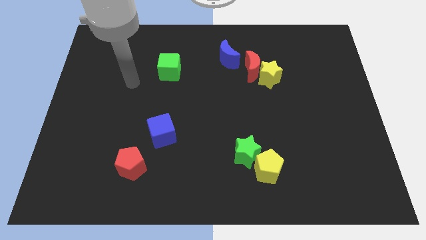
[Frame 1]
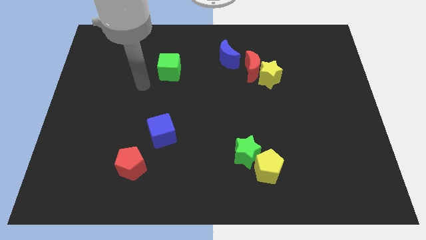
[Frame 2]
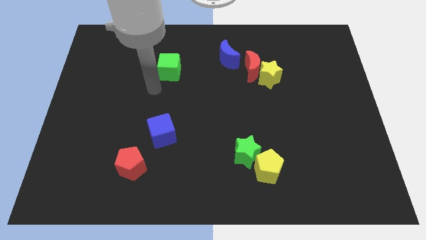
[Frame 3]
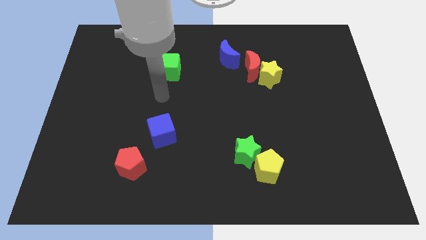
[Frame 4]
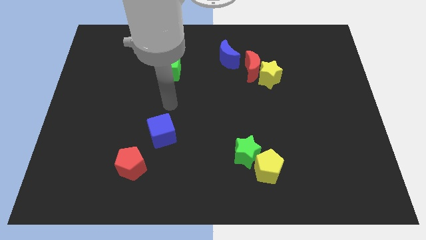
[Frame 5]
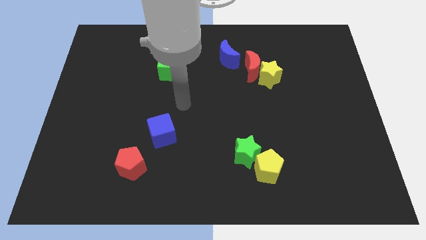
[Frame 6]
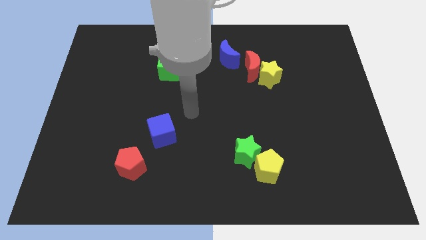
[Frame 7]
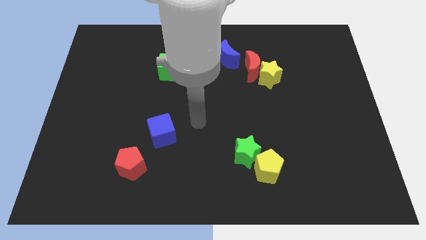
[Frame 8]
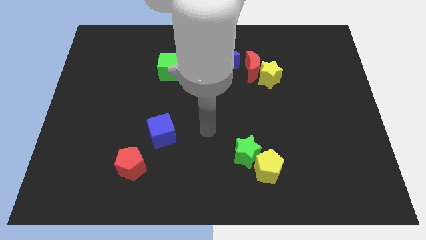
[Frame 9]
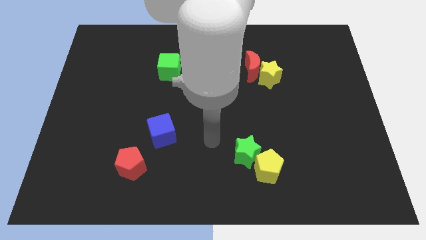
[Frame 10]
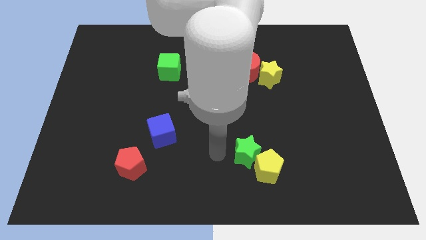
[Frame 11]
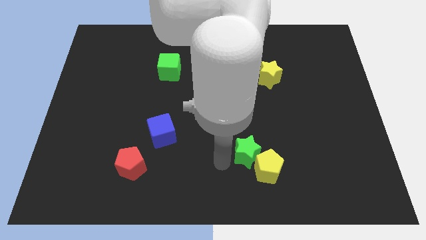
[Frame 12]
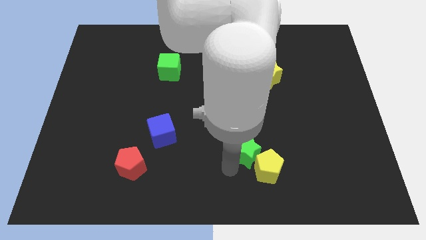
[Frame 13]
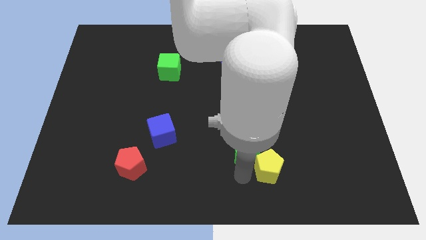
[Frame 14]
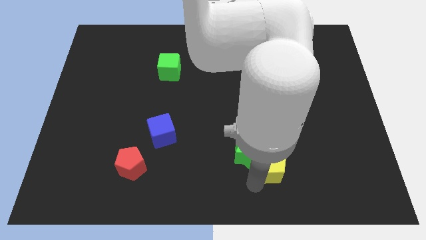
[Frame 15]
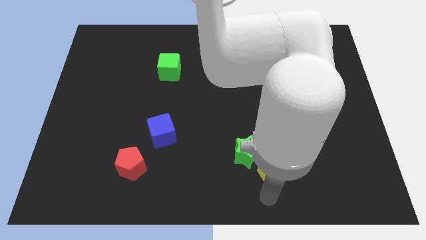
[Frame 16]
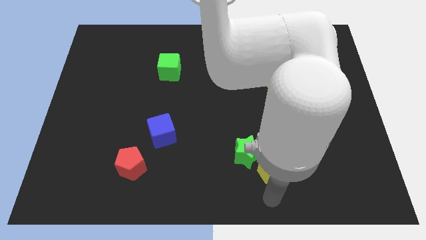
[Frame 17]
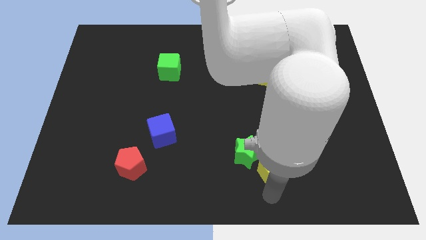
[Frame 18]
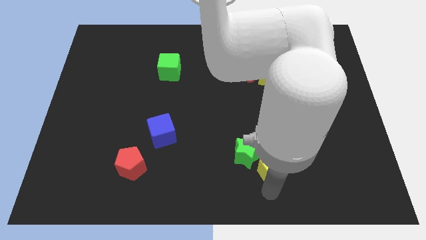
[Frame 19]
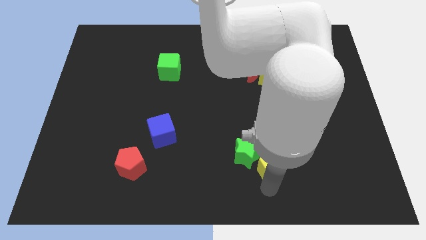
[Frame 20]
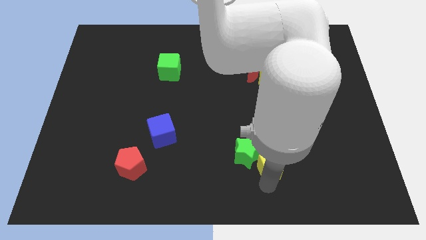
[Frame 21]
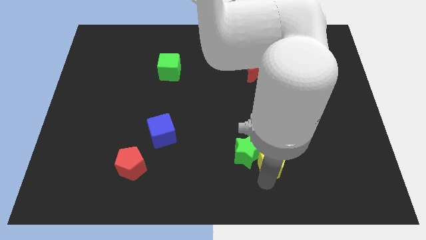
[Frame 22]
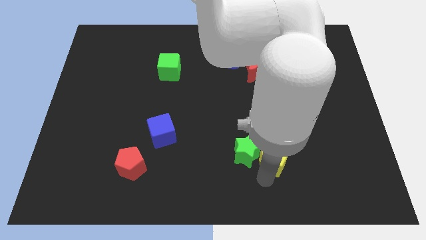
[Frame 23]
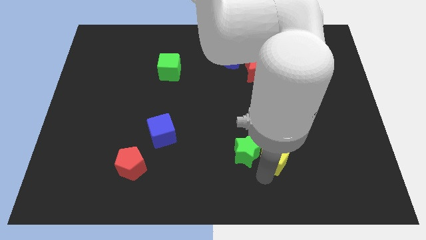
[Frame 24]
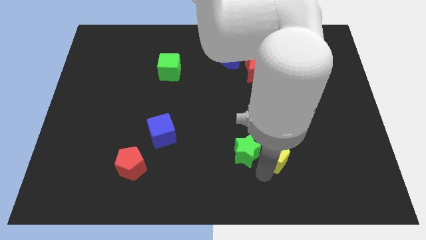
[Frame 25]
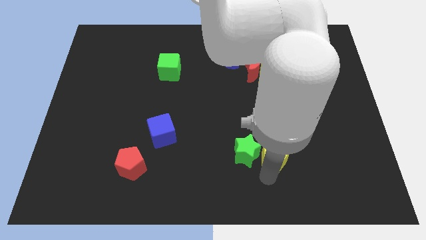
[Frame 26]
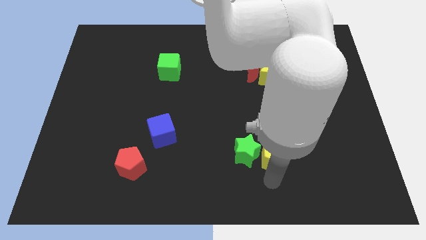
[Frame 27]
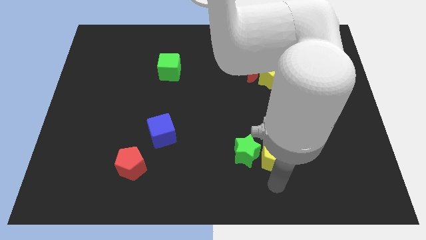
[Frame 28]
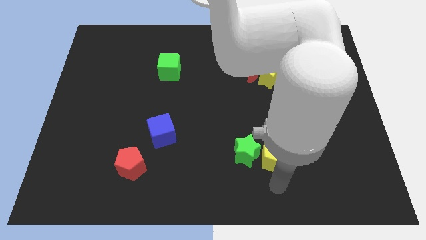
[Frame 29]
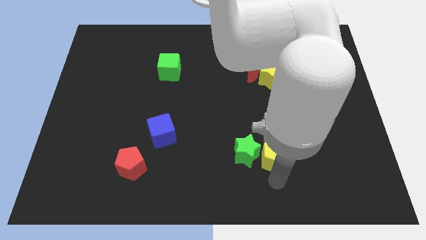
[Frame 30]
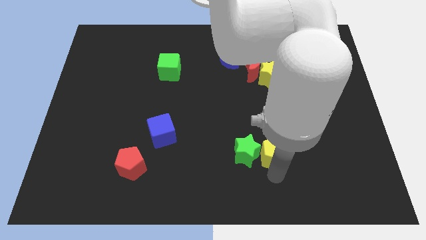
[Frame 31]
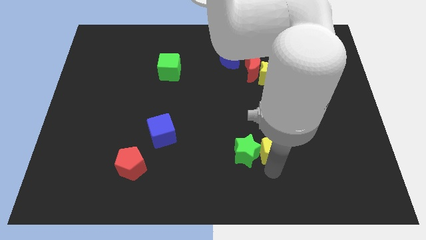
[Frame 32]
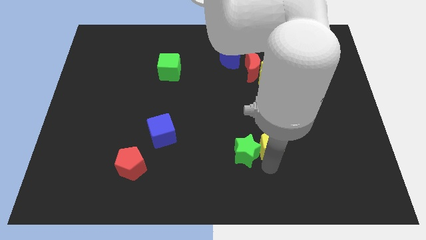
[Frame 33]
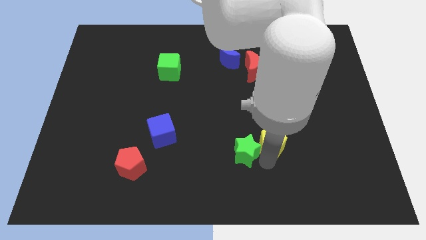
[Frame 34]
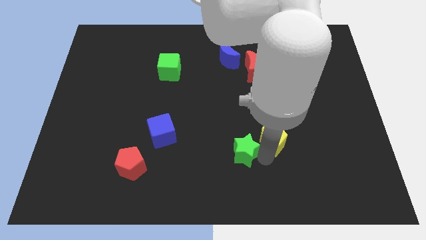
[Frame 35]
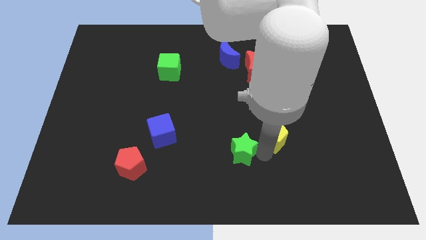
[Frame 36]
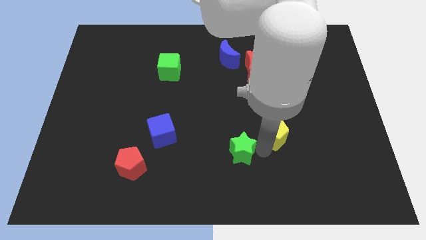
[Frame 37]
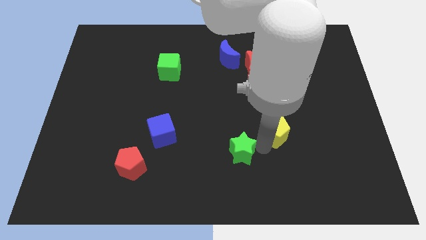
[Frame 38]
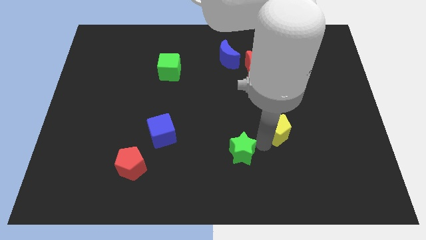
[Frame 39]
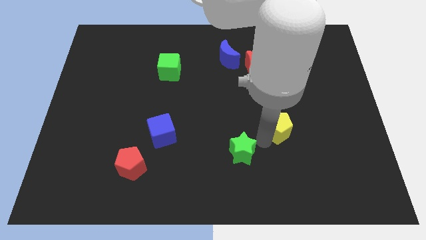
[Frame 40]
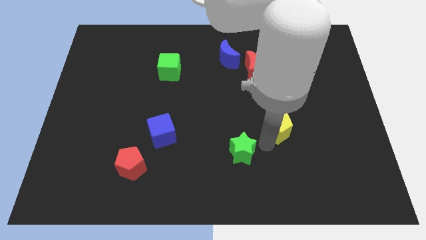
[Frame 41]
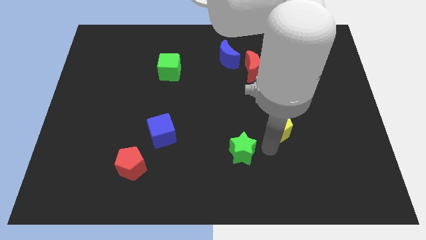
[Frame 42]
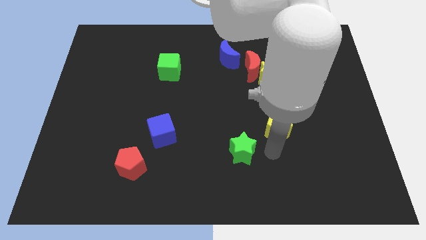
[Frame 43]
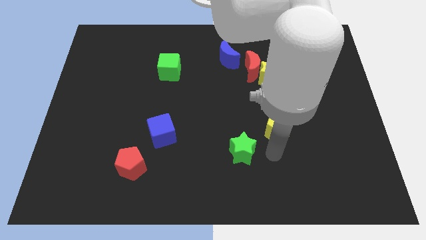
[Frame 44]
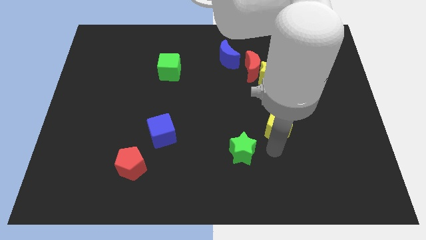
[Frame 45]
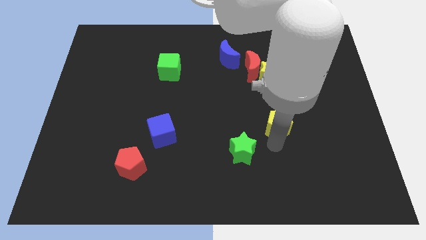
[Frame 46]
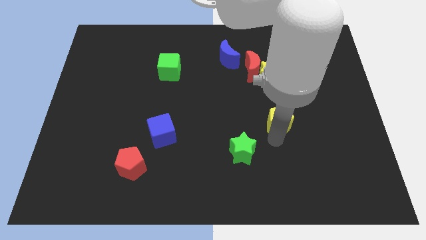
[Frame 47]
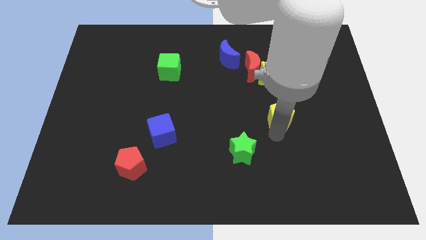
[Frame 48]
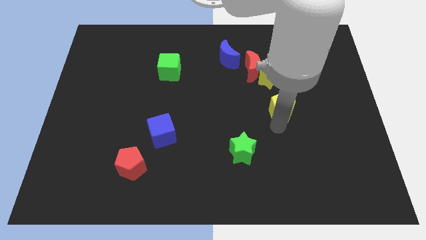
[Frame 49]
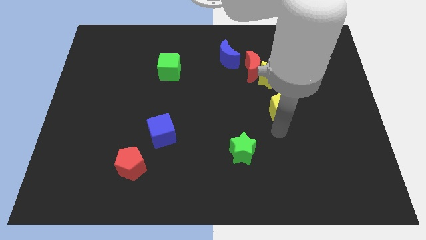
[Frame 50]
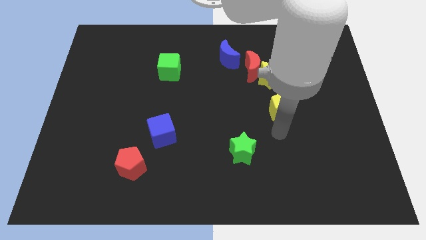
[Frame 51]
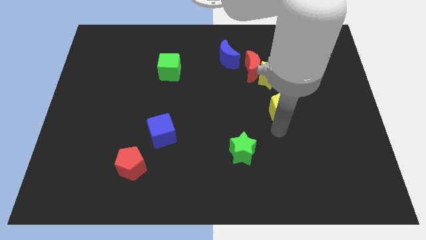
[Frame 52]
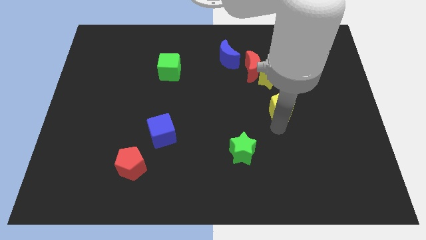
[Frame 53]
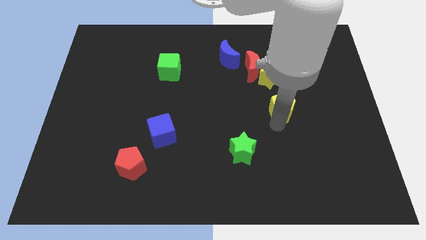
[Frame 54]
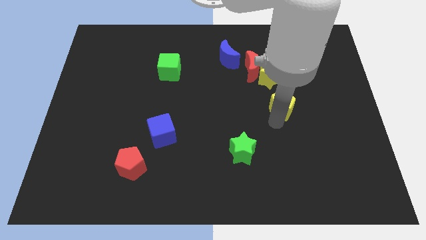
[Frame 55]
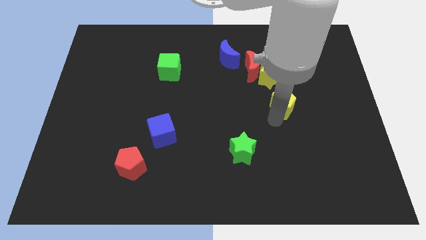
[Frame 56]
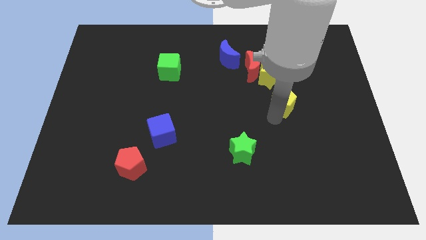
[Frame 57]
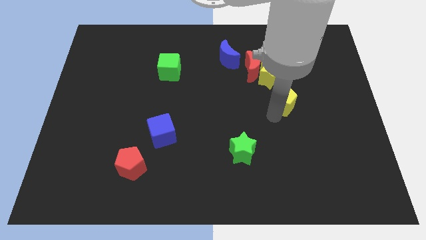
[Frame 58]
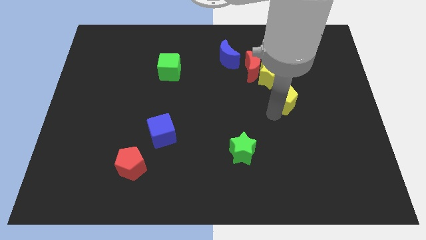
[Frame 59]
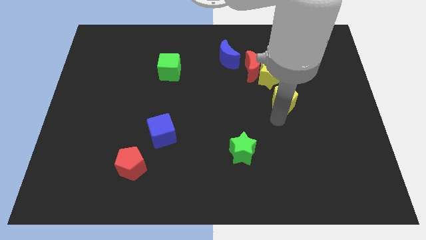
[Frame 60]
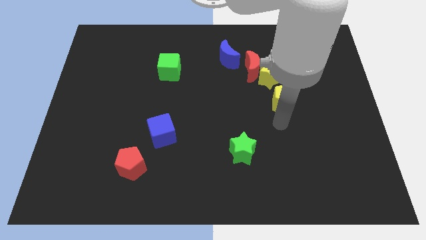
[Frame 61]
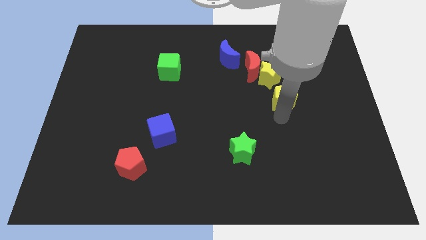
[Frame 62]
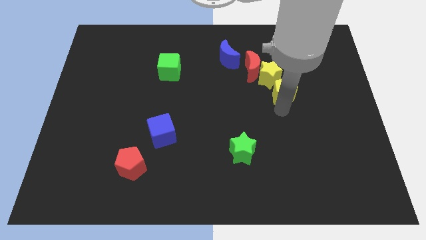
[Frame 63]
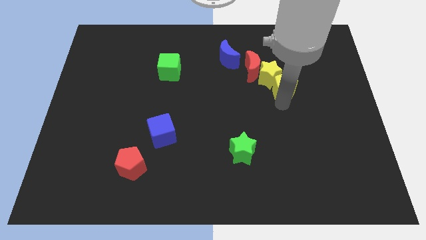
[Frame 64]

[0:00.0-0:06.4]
push the yellow pentagon up

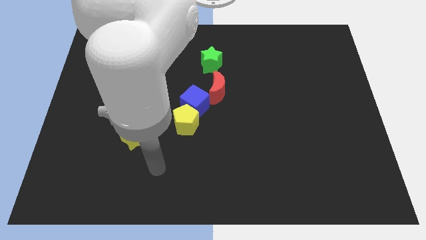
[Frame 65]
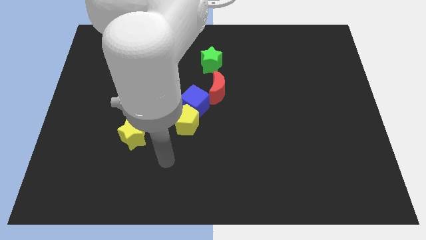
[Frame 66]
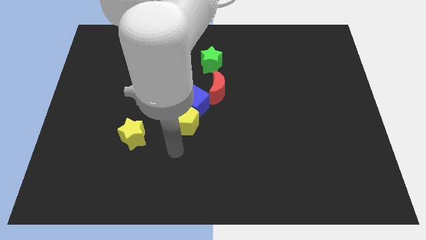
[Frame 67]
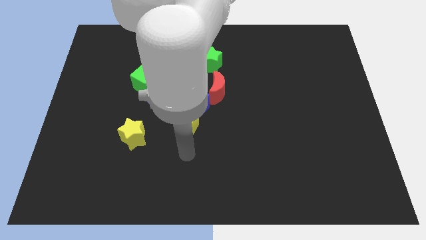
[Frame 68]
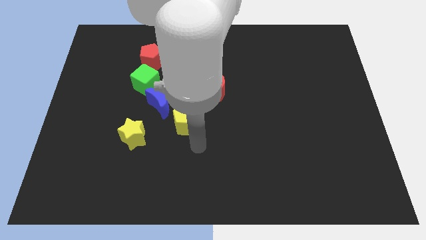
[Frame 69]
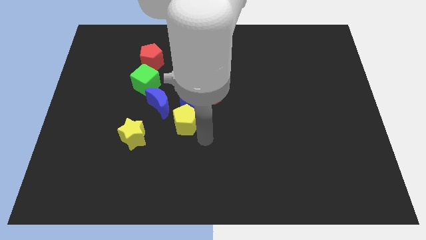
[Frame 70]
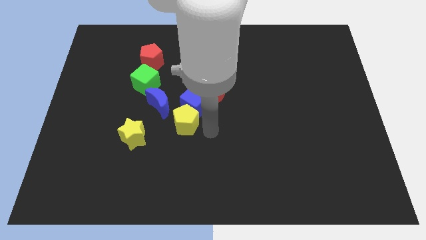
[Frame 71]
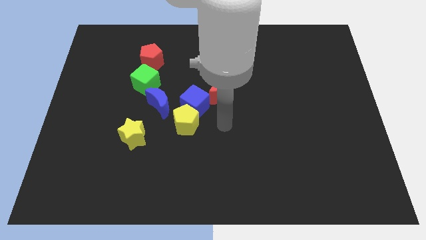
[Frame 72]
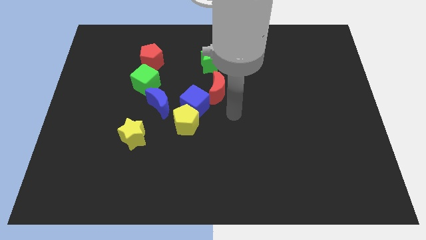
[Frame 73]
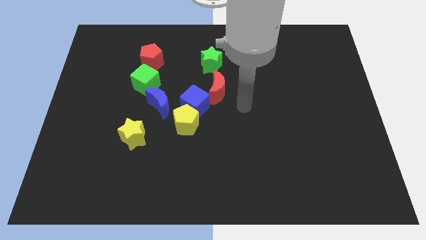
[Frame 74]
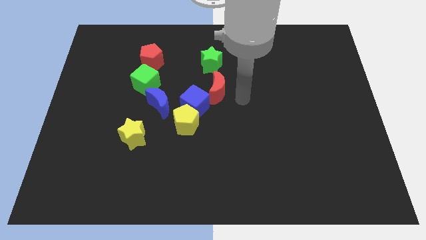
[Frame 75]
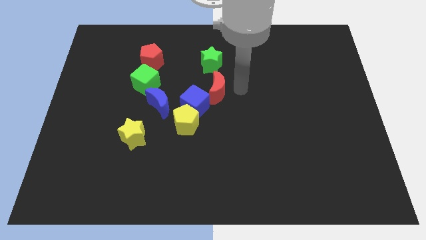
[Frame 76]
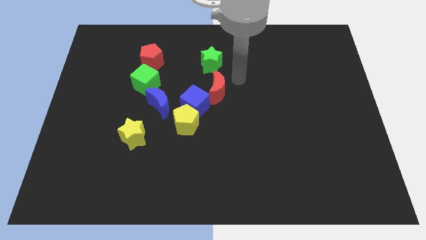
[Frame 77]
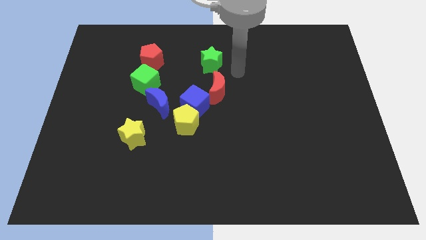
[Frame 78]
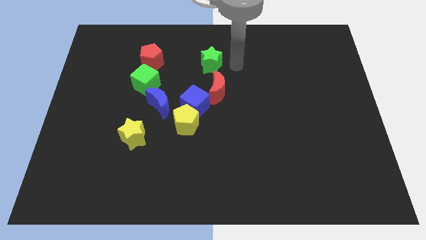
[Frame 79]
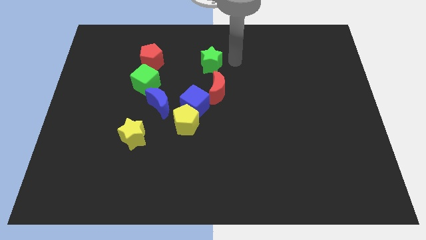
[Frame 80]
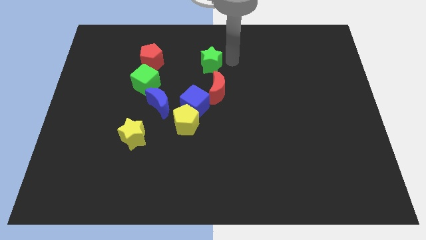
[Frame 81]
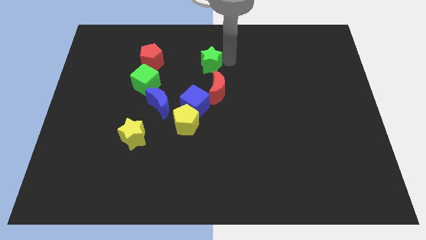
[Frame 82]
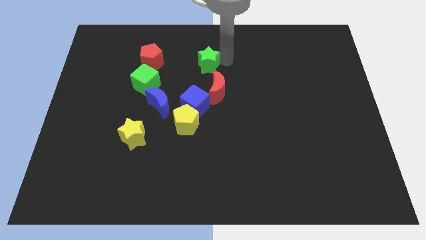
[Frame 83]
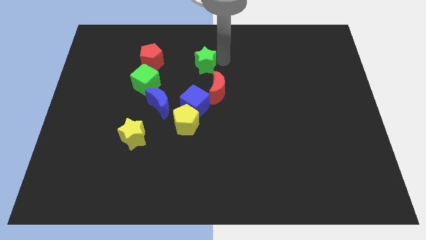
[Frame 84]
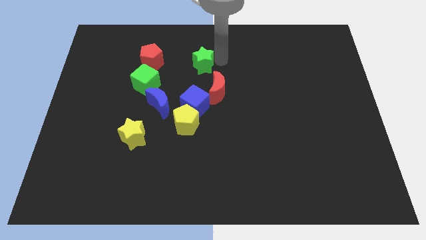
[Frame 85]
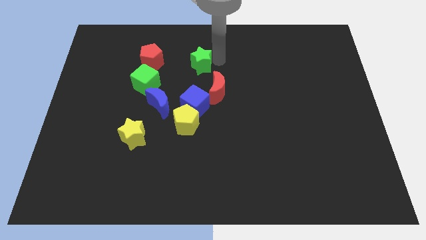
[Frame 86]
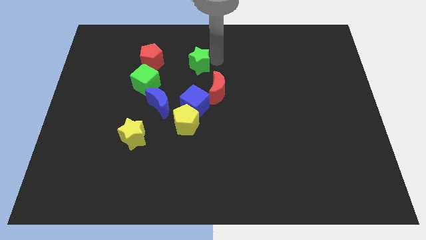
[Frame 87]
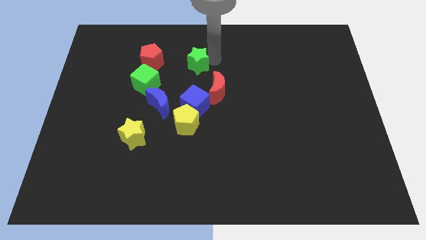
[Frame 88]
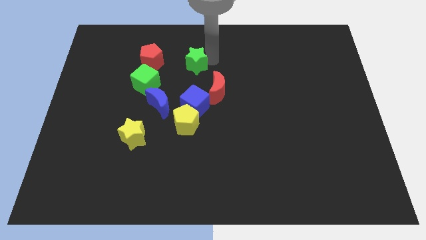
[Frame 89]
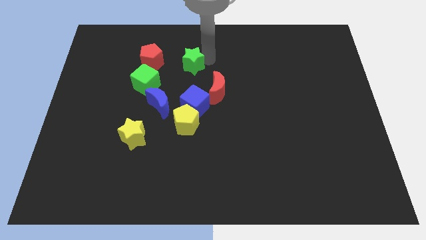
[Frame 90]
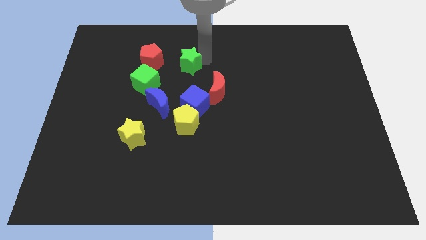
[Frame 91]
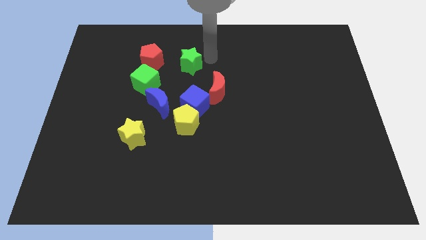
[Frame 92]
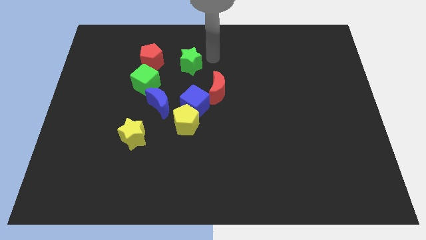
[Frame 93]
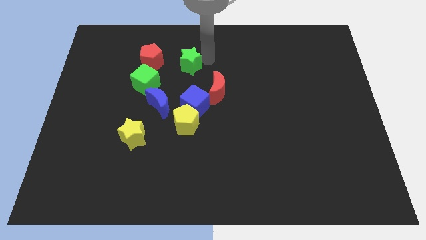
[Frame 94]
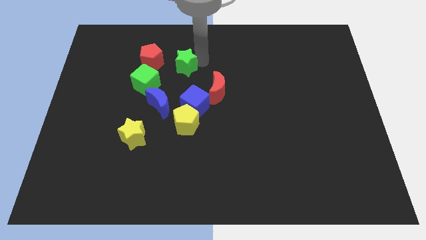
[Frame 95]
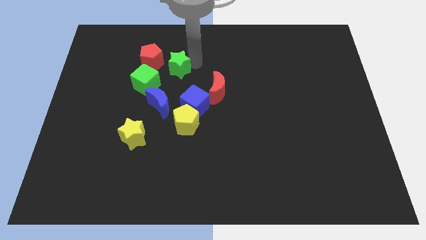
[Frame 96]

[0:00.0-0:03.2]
slide the green star to the left slightly
